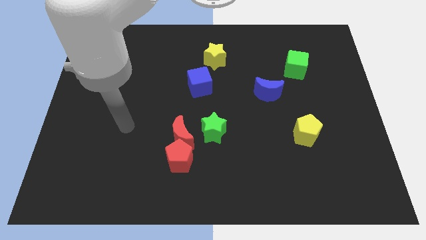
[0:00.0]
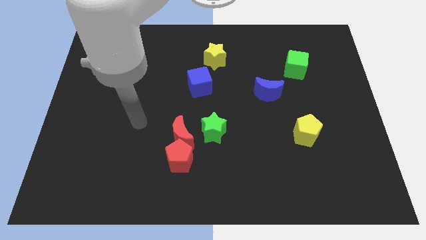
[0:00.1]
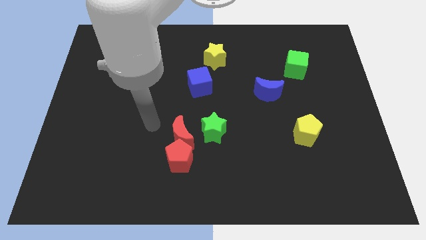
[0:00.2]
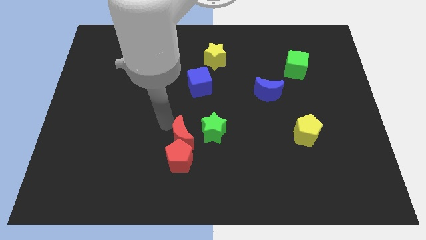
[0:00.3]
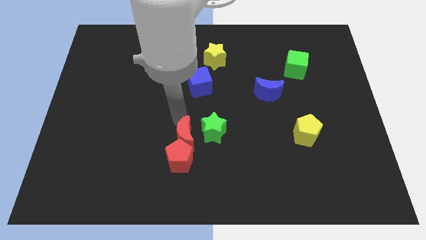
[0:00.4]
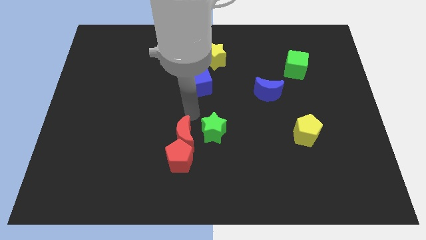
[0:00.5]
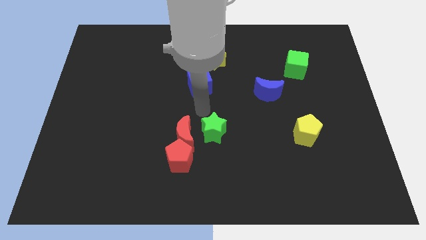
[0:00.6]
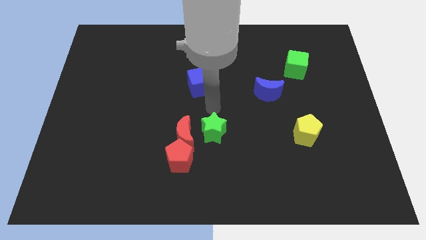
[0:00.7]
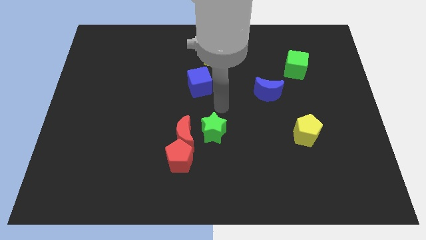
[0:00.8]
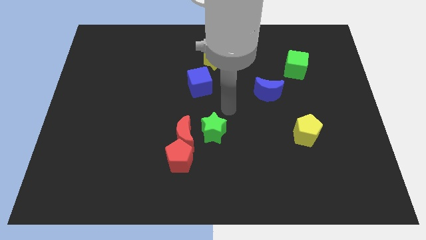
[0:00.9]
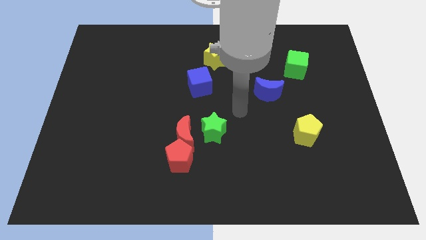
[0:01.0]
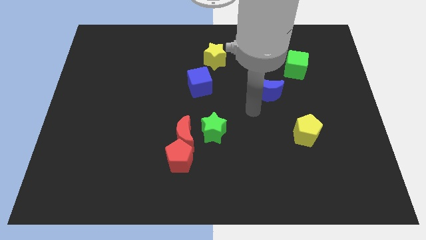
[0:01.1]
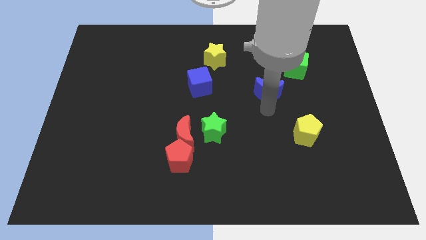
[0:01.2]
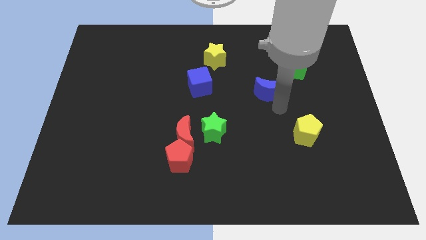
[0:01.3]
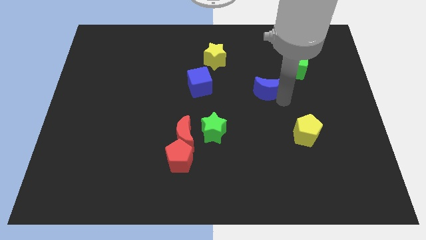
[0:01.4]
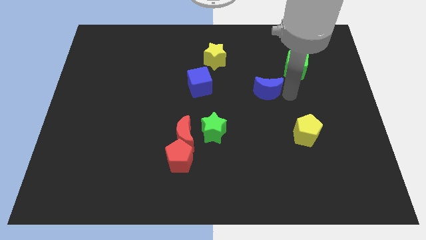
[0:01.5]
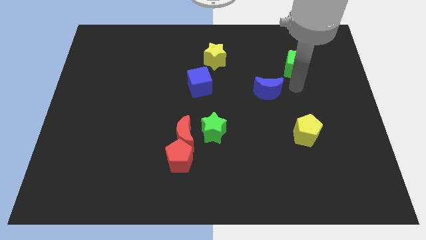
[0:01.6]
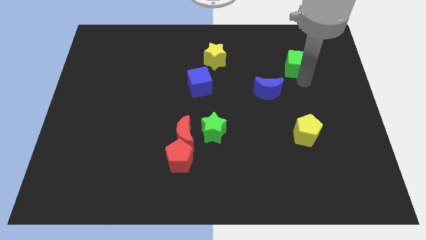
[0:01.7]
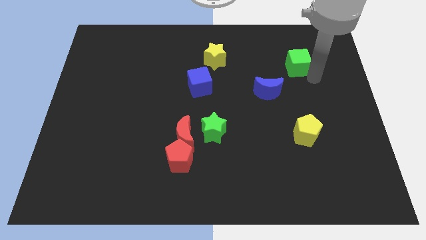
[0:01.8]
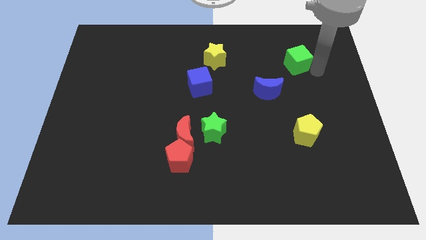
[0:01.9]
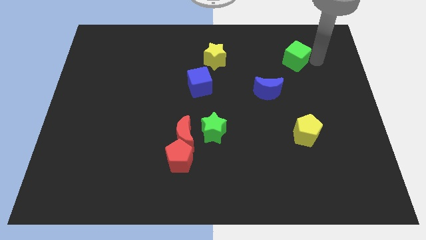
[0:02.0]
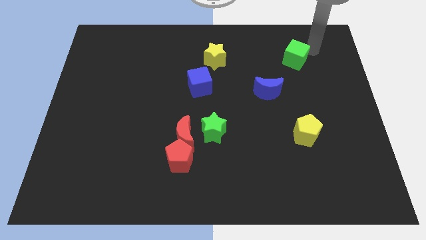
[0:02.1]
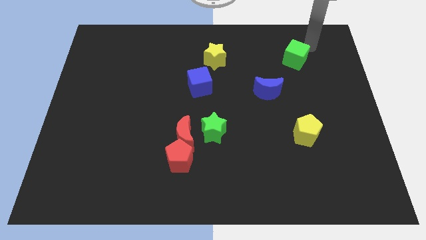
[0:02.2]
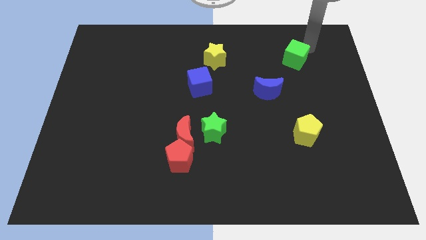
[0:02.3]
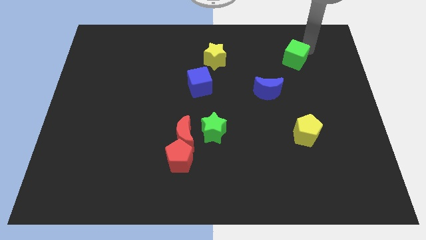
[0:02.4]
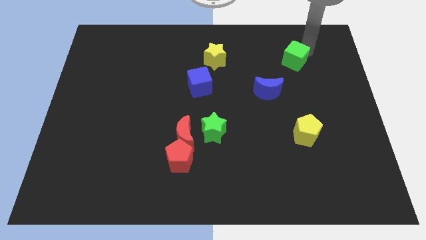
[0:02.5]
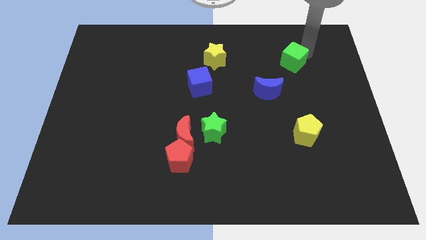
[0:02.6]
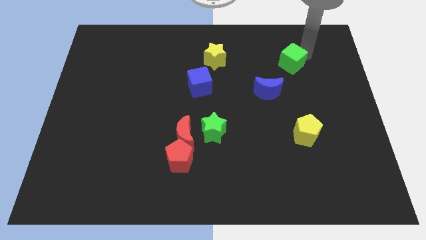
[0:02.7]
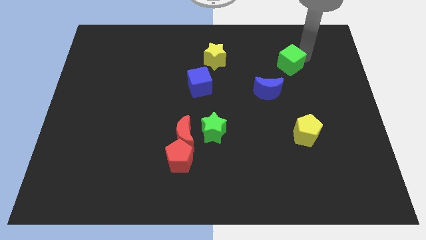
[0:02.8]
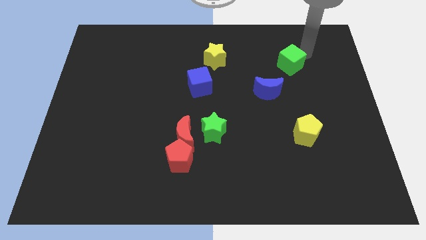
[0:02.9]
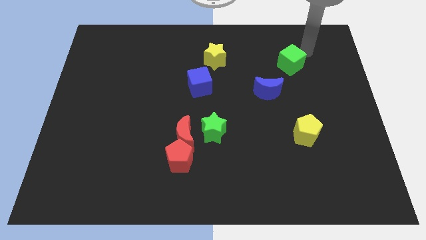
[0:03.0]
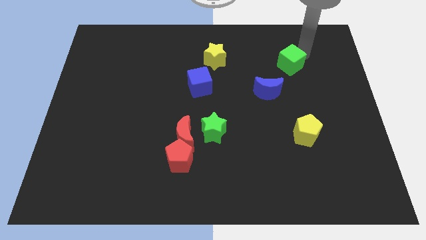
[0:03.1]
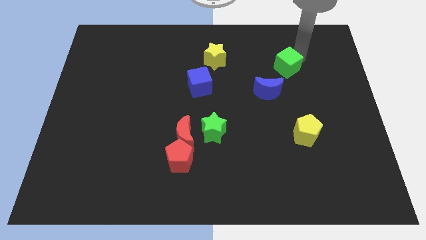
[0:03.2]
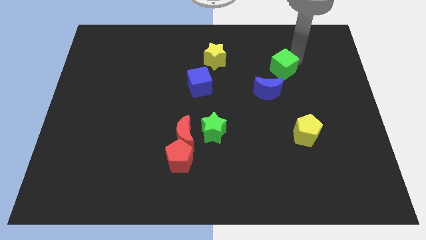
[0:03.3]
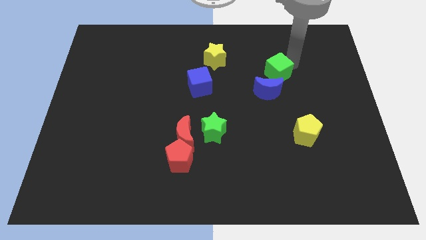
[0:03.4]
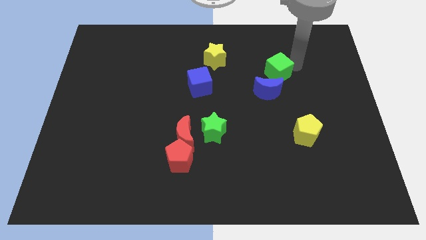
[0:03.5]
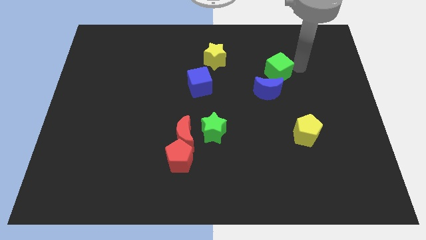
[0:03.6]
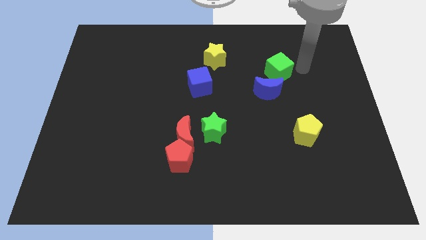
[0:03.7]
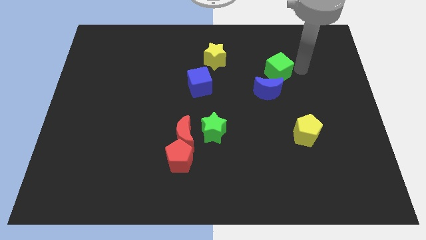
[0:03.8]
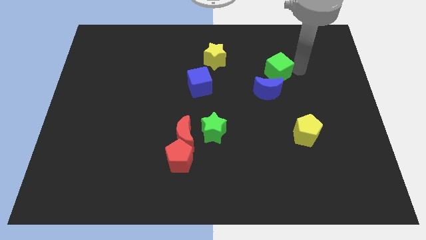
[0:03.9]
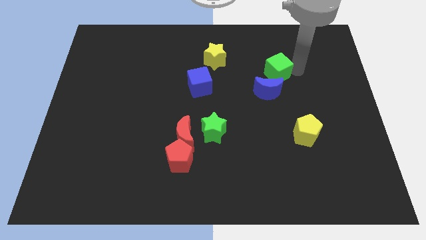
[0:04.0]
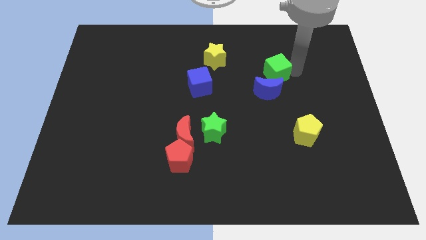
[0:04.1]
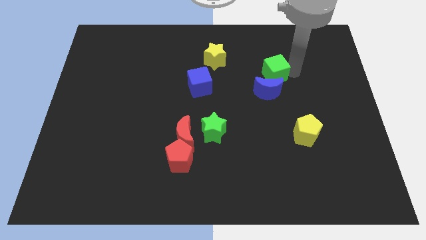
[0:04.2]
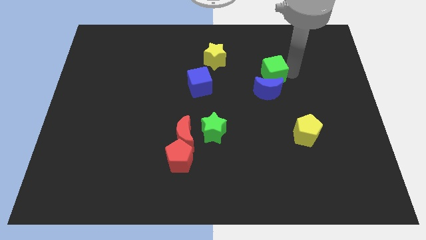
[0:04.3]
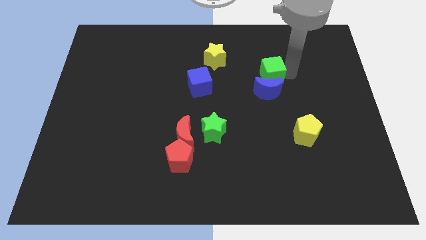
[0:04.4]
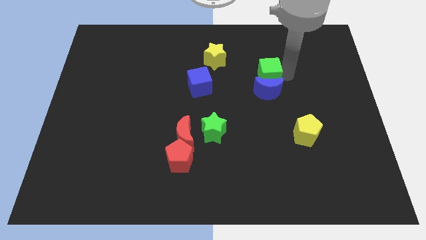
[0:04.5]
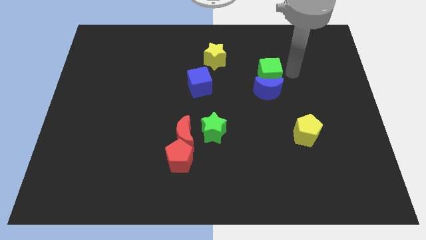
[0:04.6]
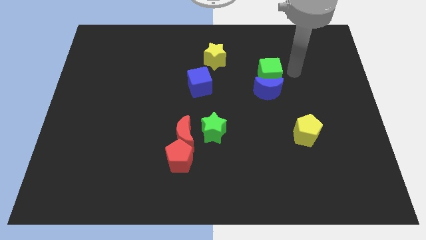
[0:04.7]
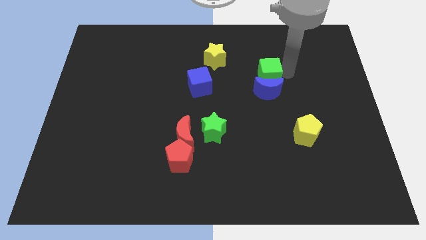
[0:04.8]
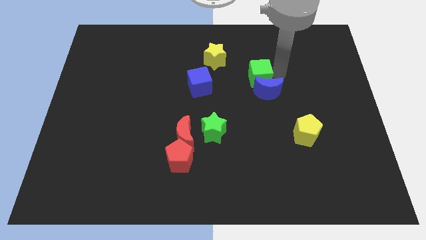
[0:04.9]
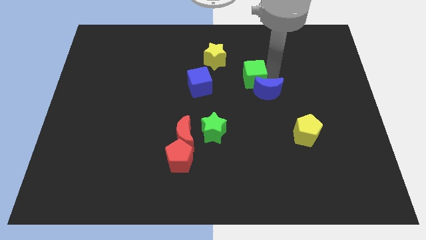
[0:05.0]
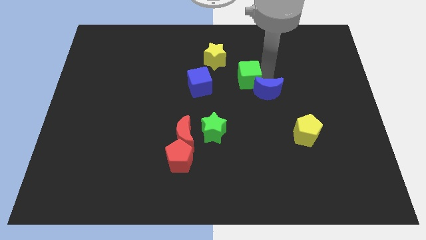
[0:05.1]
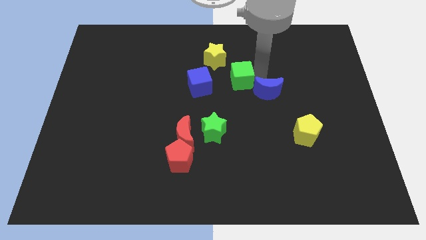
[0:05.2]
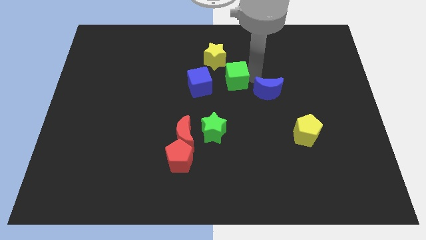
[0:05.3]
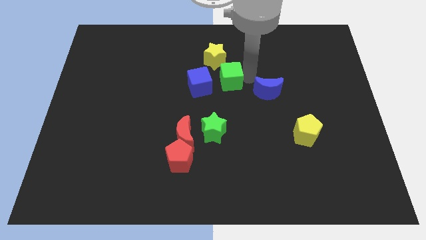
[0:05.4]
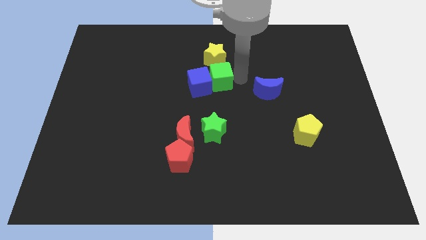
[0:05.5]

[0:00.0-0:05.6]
slide the green cube to the blue cube
